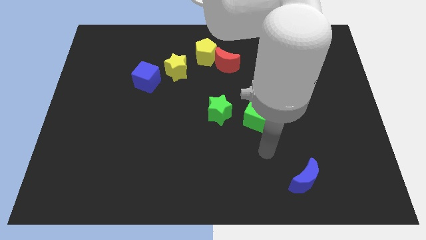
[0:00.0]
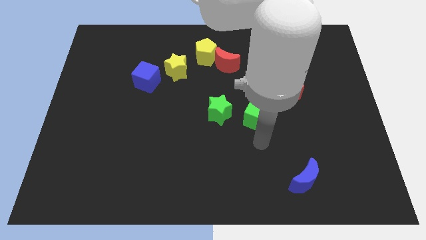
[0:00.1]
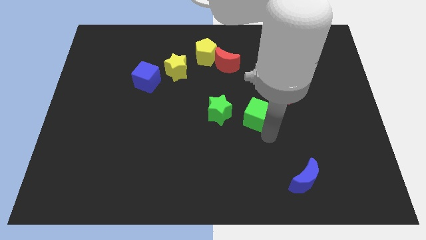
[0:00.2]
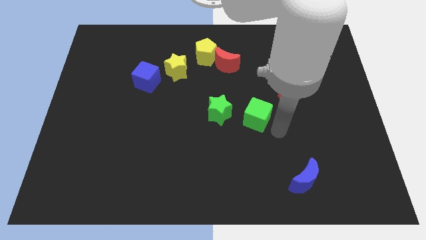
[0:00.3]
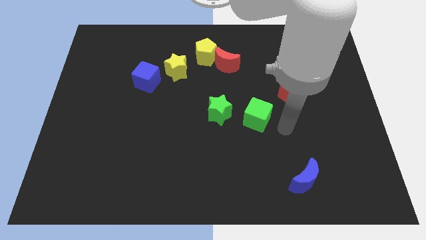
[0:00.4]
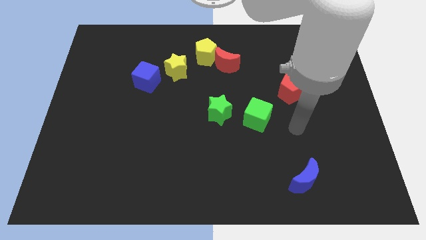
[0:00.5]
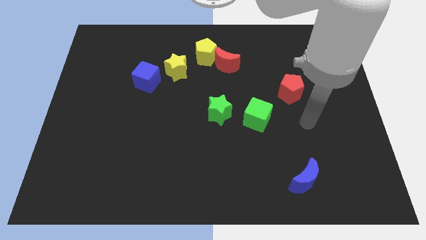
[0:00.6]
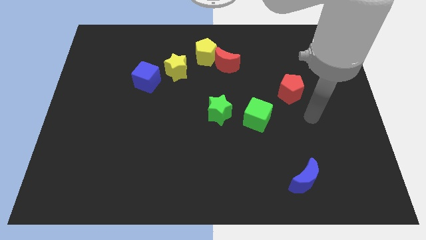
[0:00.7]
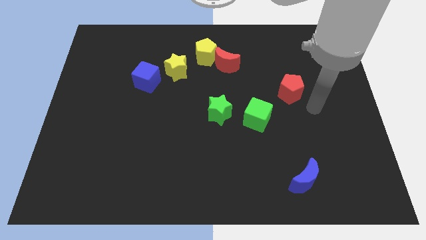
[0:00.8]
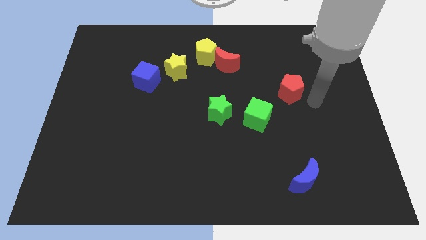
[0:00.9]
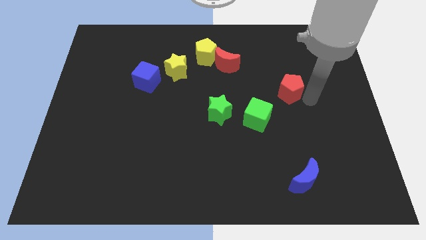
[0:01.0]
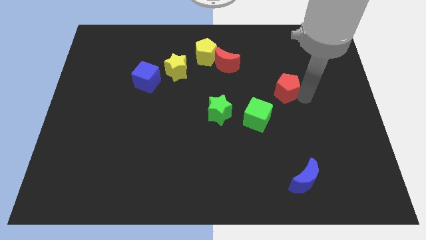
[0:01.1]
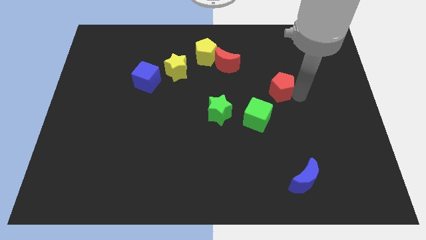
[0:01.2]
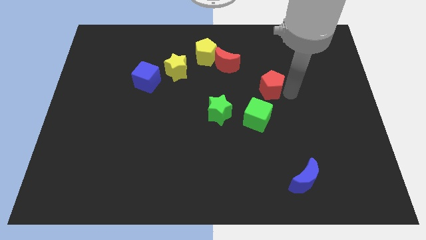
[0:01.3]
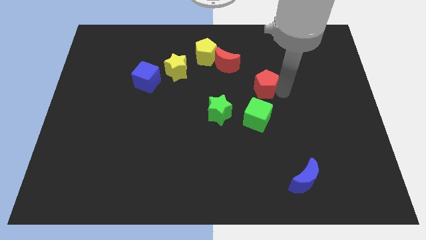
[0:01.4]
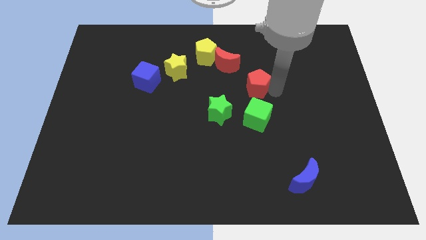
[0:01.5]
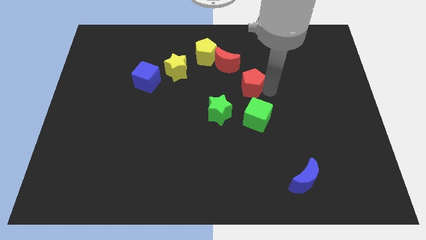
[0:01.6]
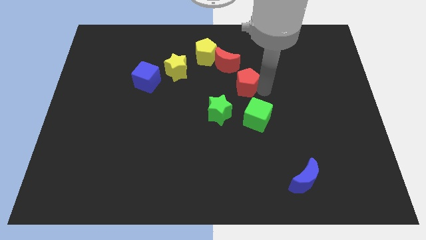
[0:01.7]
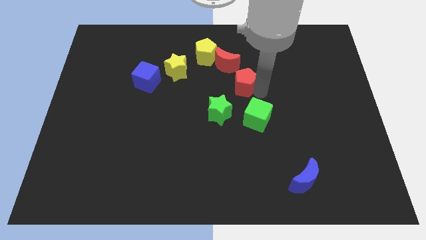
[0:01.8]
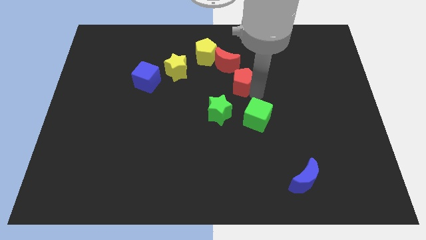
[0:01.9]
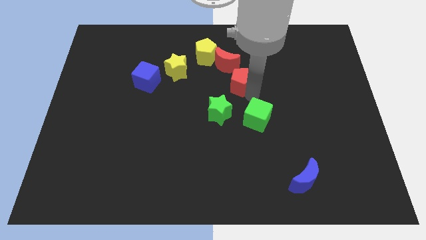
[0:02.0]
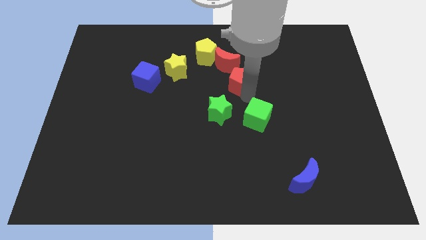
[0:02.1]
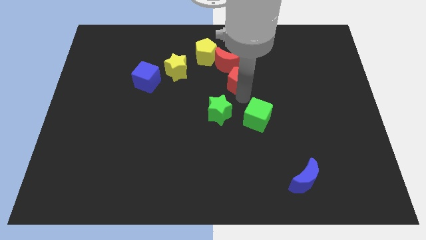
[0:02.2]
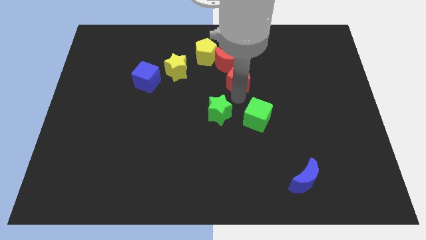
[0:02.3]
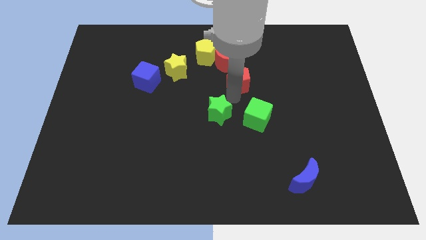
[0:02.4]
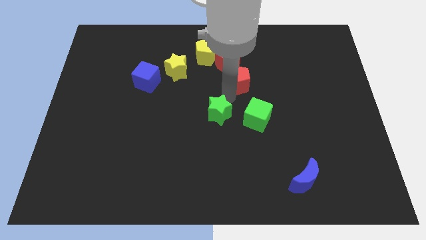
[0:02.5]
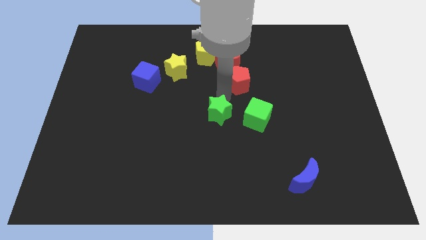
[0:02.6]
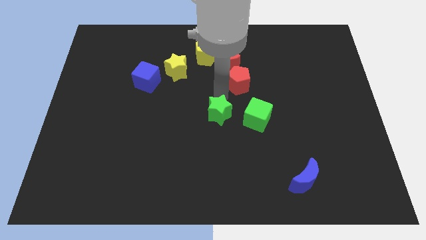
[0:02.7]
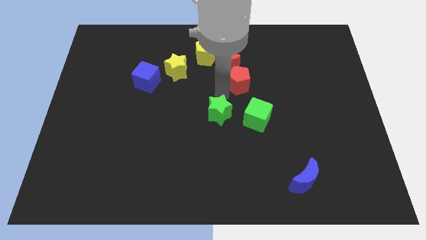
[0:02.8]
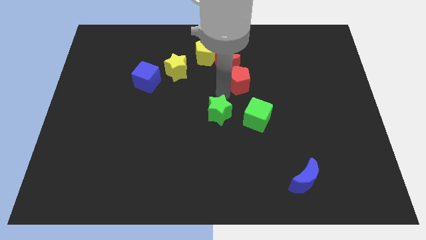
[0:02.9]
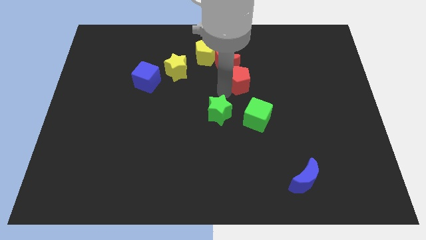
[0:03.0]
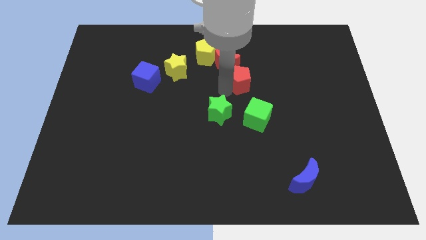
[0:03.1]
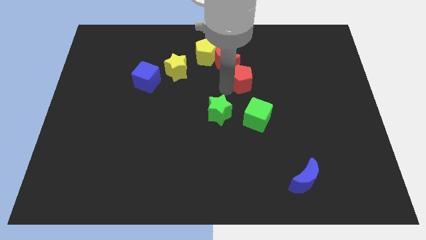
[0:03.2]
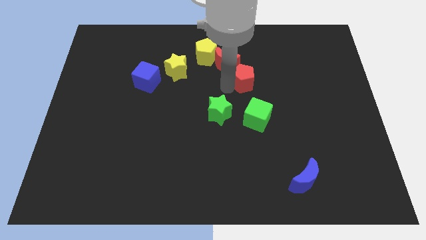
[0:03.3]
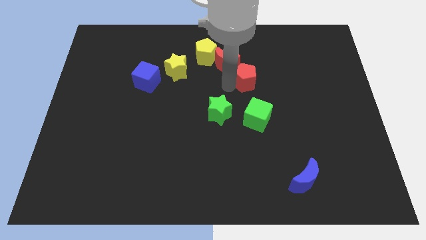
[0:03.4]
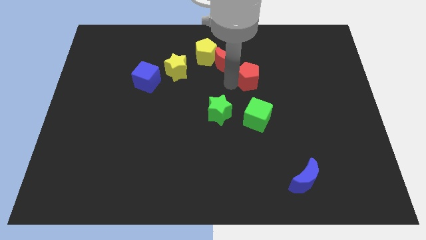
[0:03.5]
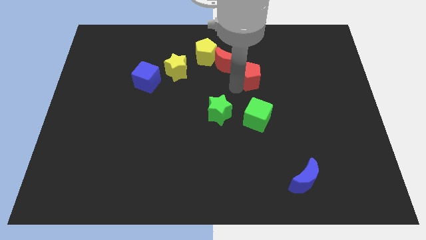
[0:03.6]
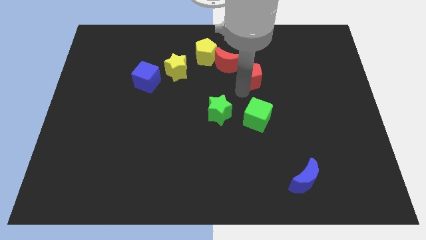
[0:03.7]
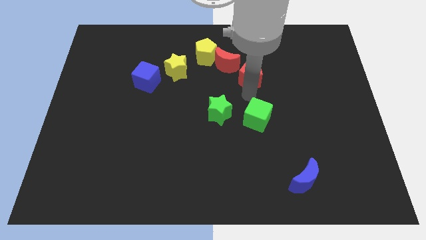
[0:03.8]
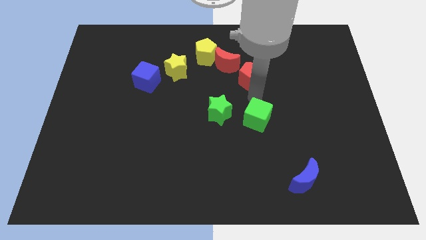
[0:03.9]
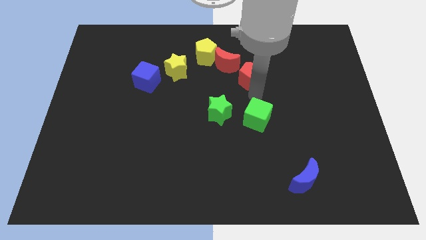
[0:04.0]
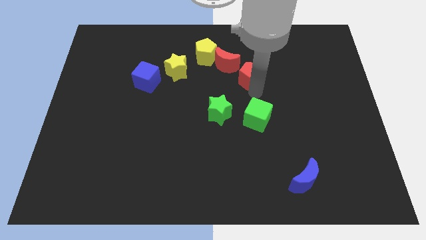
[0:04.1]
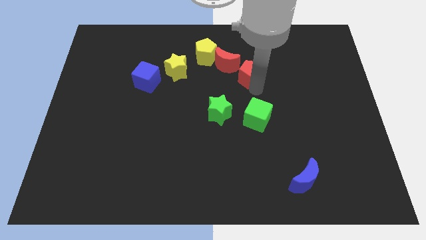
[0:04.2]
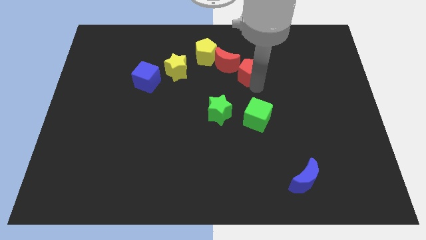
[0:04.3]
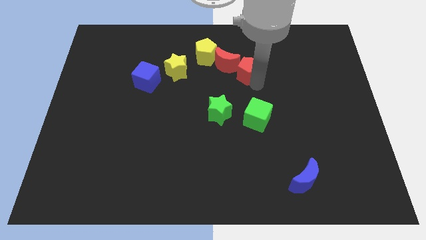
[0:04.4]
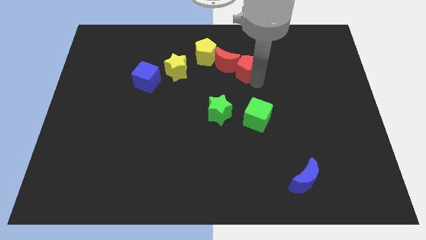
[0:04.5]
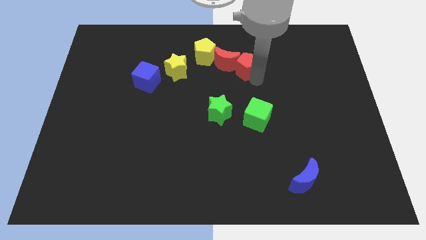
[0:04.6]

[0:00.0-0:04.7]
push the red pentagon to the right side of the yellow pentagon

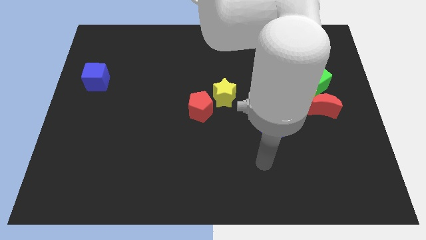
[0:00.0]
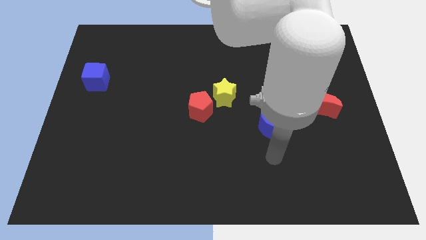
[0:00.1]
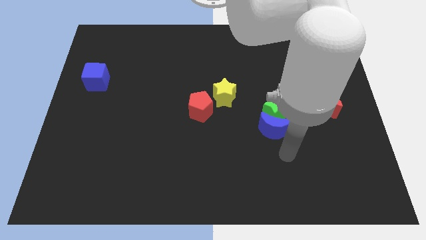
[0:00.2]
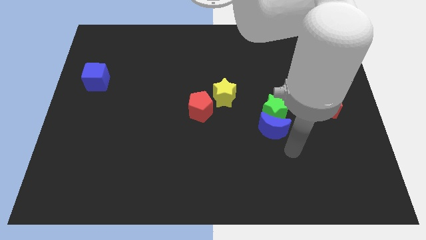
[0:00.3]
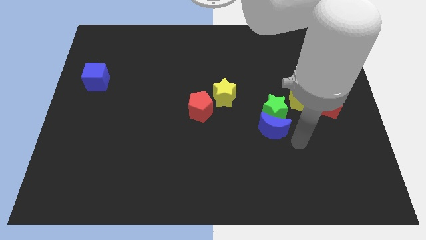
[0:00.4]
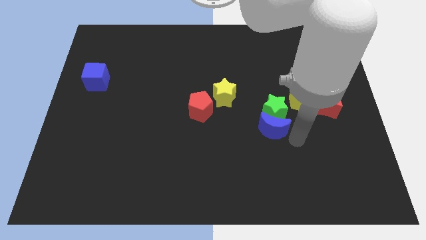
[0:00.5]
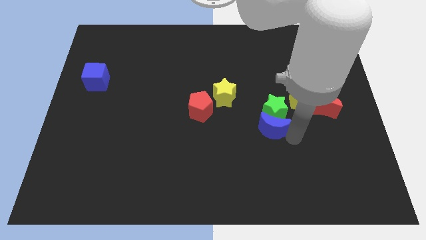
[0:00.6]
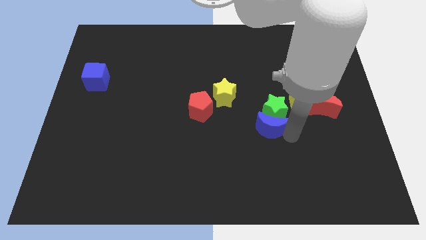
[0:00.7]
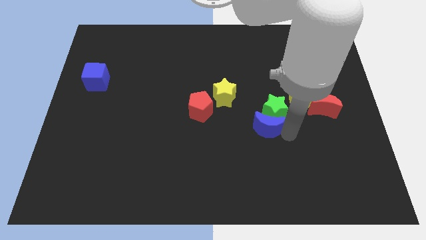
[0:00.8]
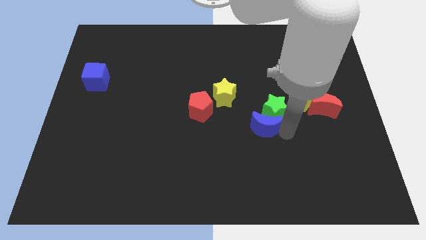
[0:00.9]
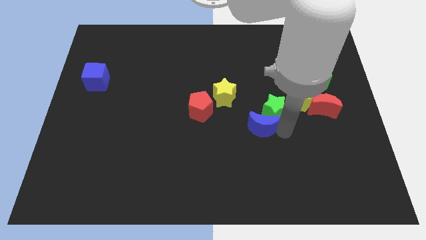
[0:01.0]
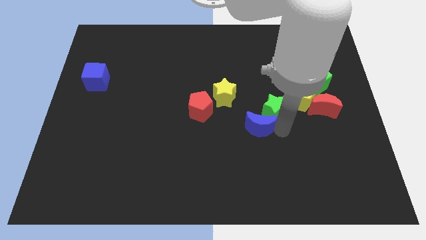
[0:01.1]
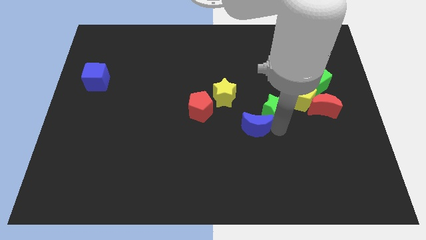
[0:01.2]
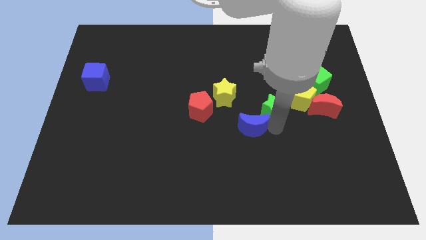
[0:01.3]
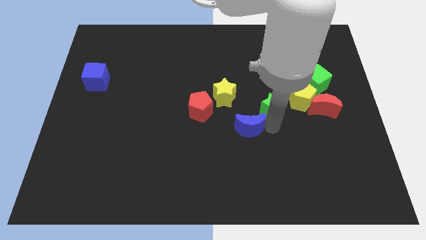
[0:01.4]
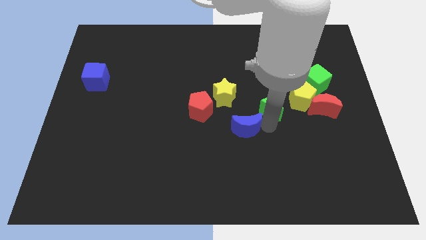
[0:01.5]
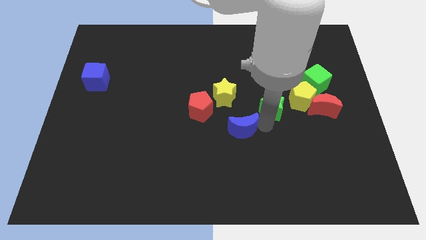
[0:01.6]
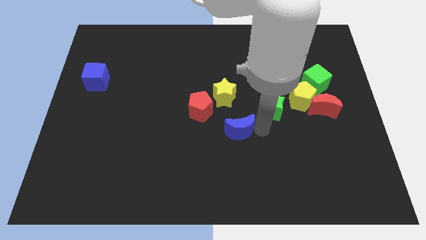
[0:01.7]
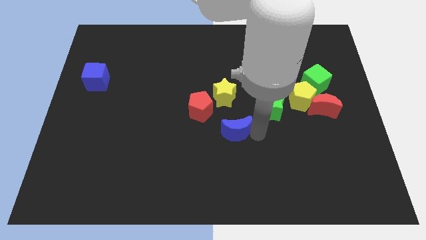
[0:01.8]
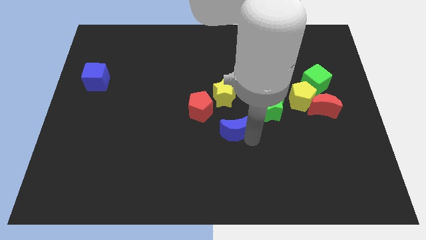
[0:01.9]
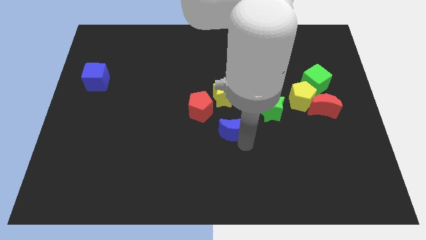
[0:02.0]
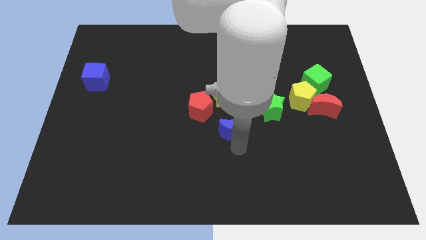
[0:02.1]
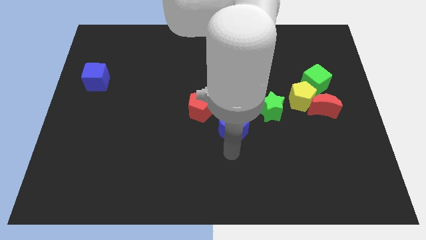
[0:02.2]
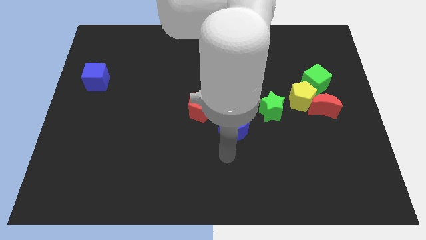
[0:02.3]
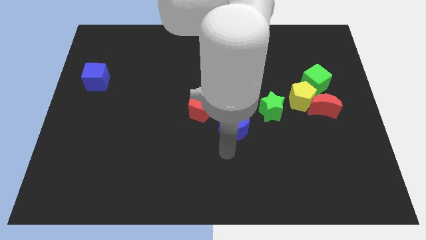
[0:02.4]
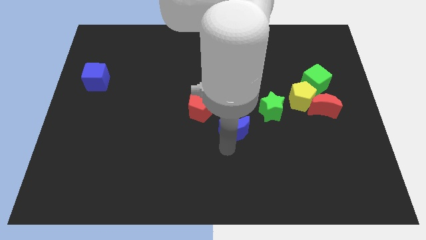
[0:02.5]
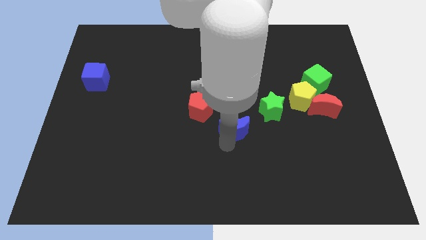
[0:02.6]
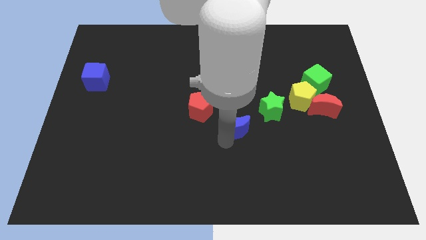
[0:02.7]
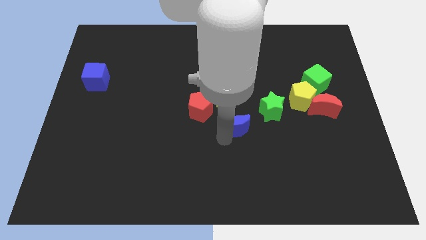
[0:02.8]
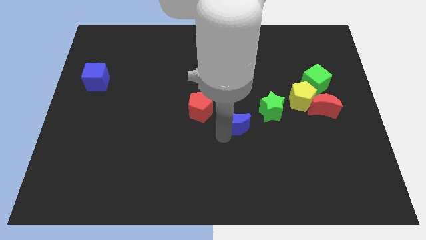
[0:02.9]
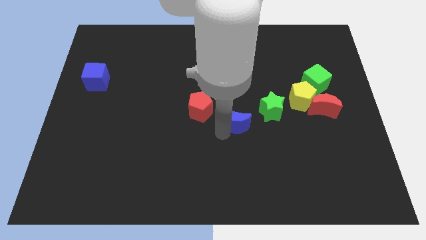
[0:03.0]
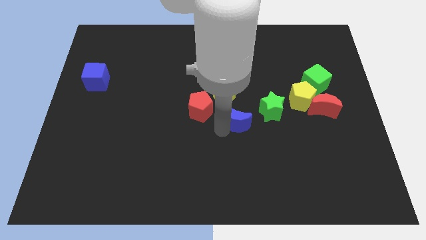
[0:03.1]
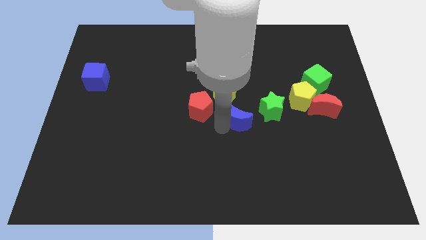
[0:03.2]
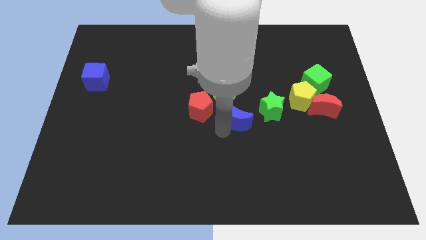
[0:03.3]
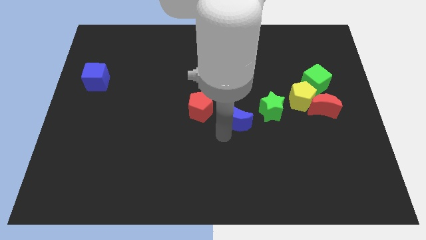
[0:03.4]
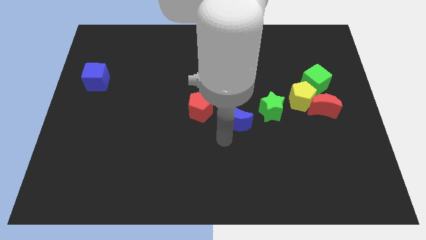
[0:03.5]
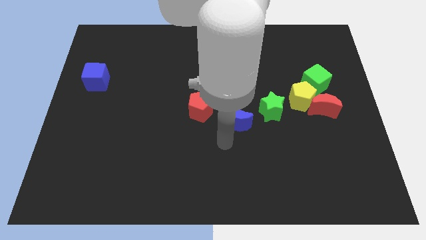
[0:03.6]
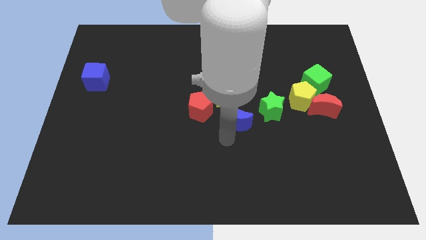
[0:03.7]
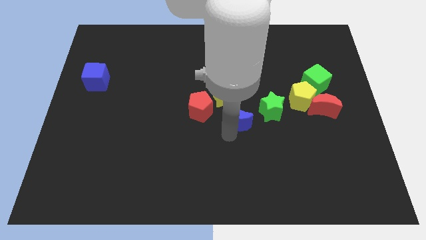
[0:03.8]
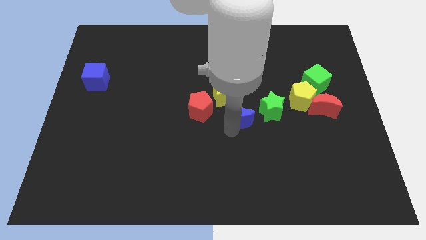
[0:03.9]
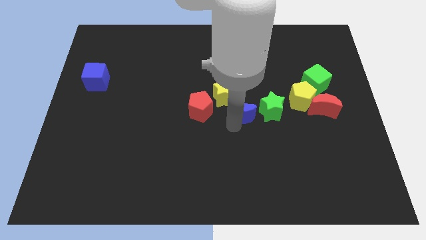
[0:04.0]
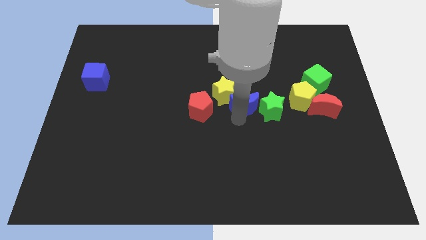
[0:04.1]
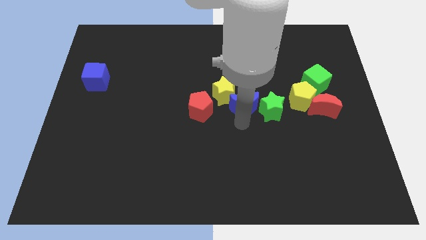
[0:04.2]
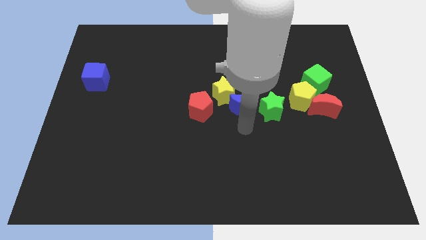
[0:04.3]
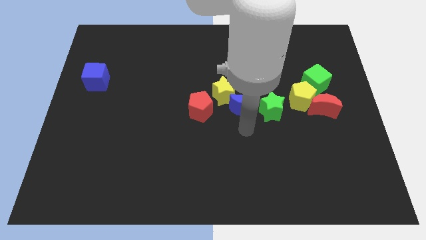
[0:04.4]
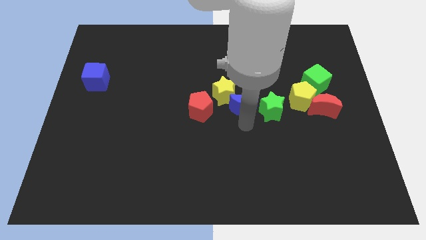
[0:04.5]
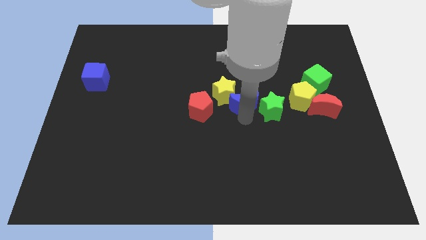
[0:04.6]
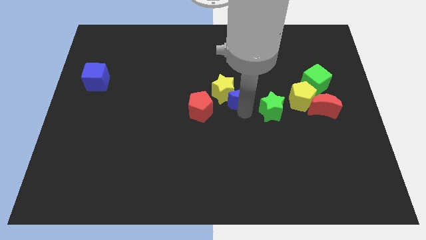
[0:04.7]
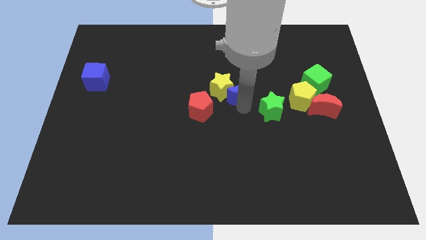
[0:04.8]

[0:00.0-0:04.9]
push the blue moon diagonally up and to the right of the red pentagon
